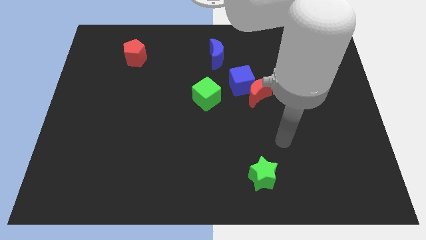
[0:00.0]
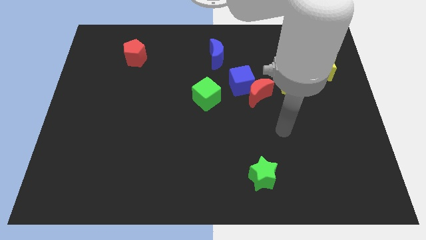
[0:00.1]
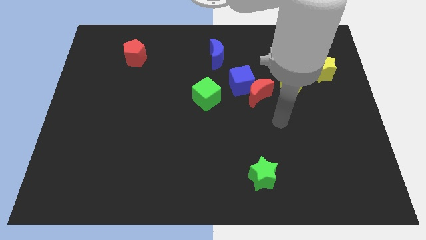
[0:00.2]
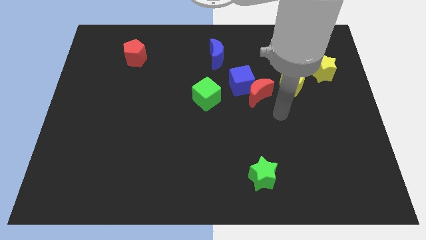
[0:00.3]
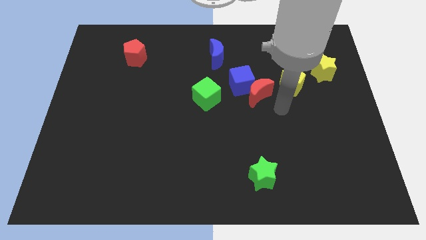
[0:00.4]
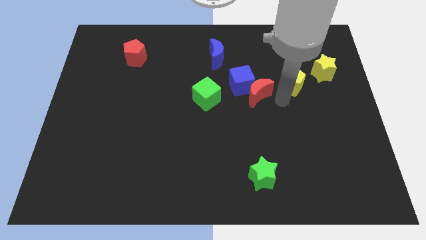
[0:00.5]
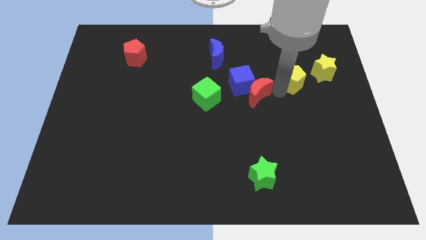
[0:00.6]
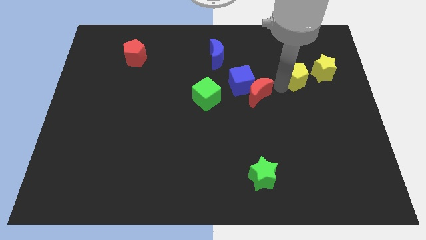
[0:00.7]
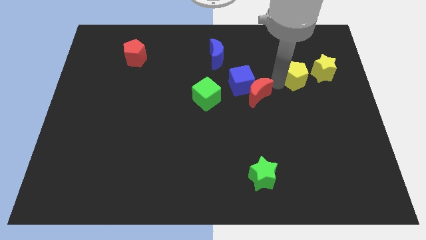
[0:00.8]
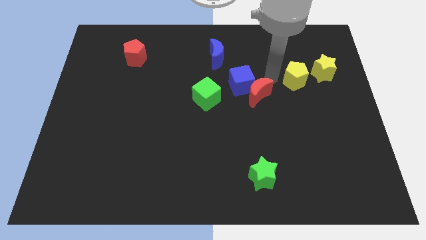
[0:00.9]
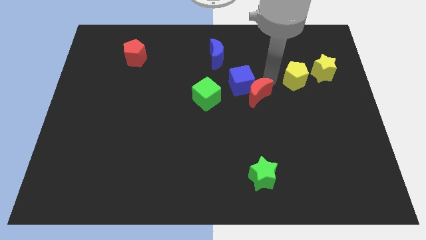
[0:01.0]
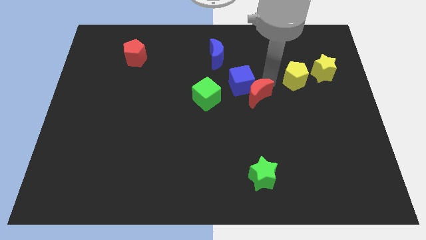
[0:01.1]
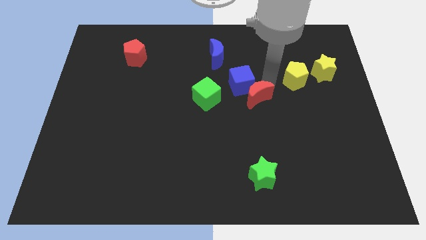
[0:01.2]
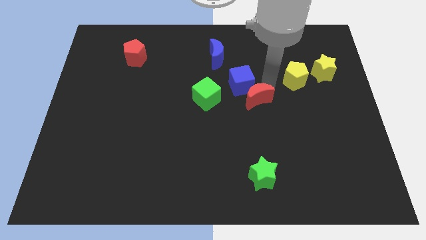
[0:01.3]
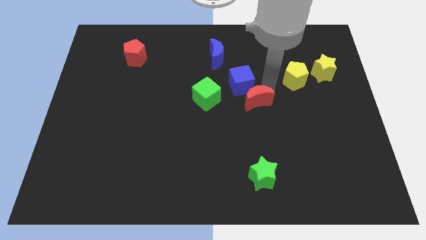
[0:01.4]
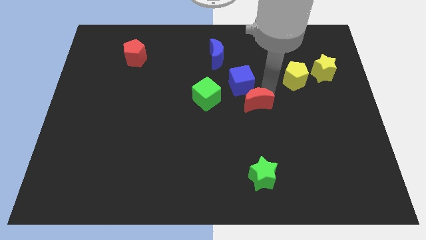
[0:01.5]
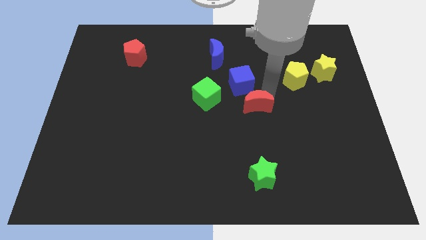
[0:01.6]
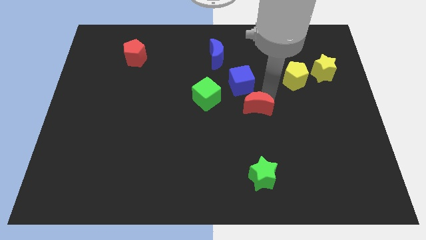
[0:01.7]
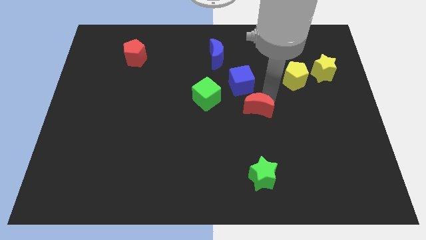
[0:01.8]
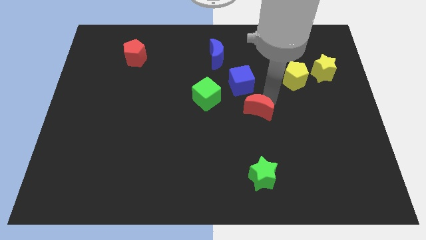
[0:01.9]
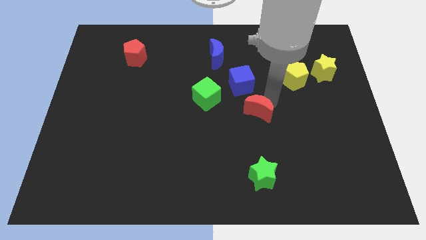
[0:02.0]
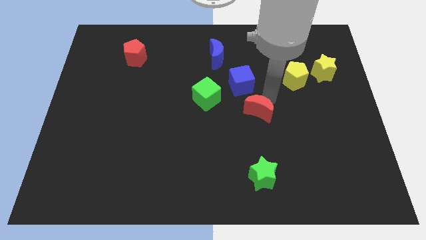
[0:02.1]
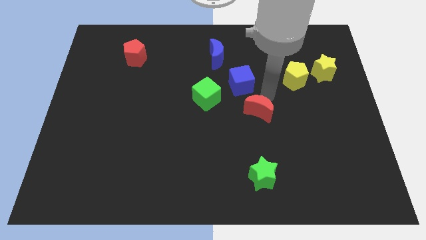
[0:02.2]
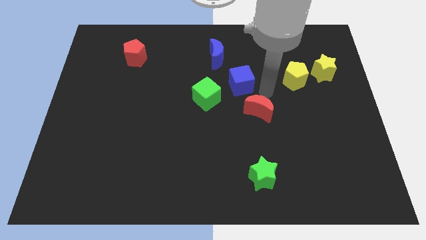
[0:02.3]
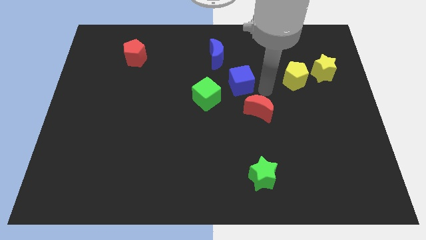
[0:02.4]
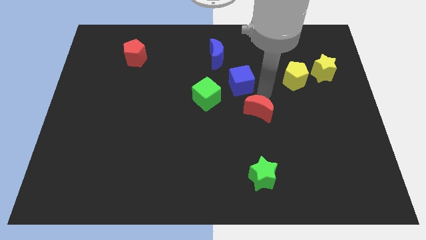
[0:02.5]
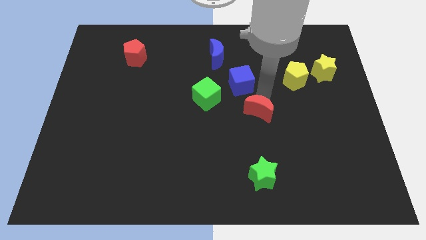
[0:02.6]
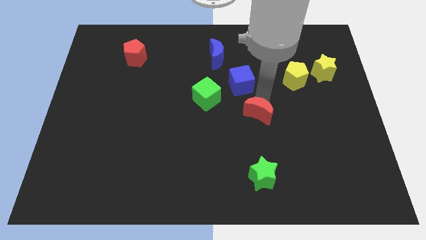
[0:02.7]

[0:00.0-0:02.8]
move the red moon away from the blue cube and yellow pentagon

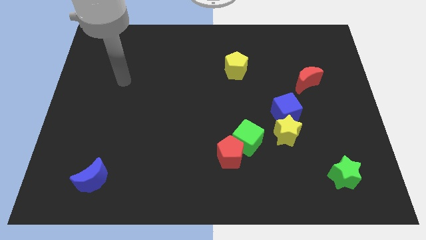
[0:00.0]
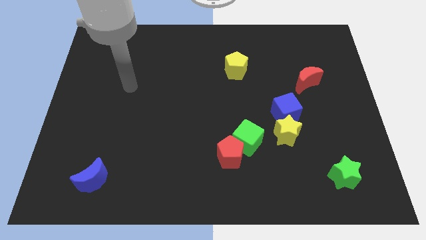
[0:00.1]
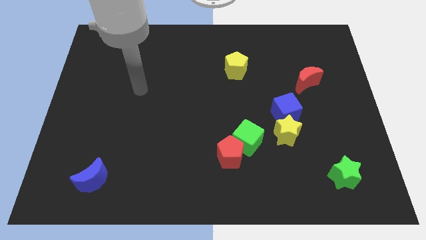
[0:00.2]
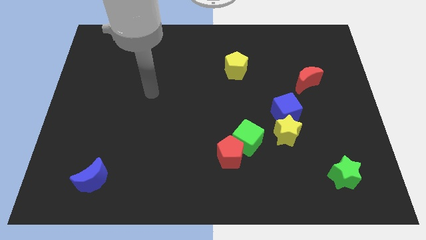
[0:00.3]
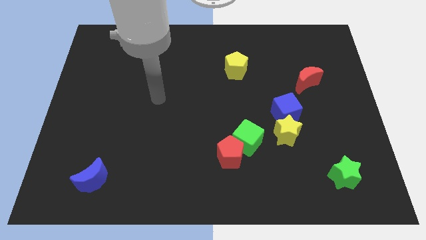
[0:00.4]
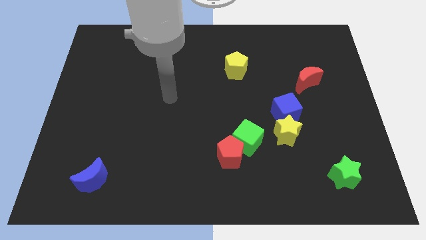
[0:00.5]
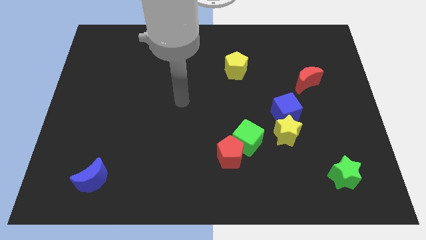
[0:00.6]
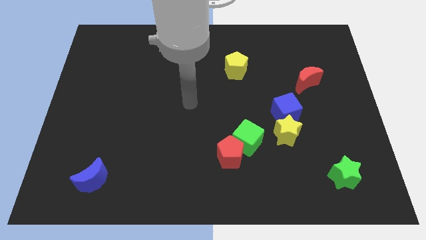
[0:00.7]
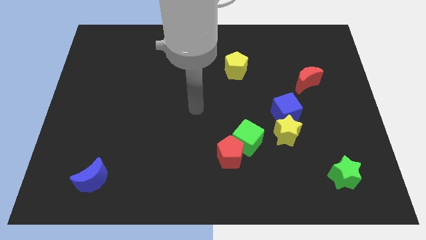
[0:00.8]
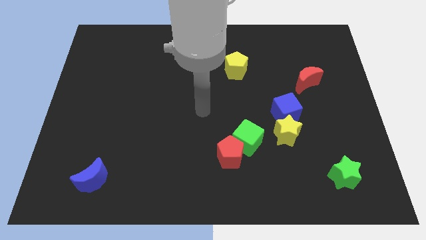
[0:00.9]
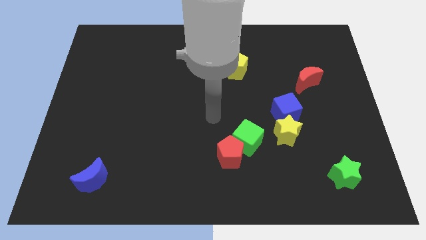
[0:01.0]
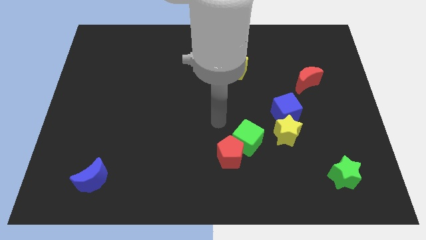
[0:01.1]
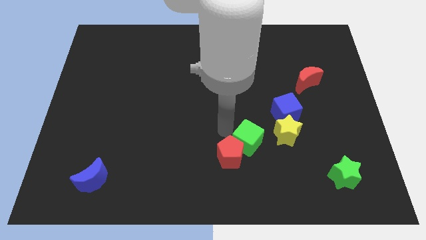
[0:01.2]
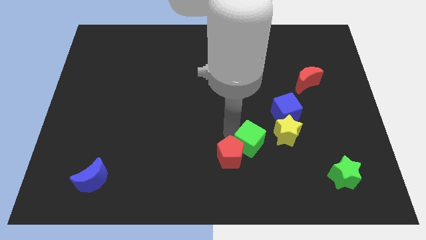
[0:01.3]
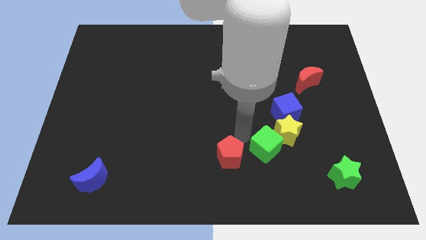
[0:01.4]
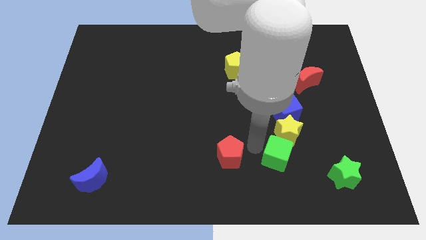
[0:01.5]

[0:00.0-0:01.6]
pull the red pentagon apart from the green cube

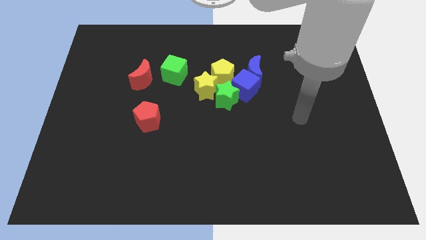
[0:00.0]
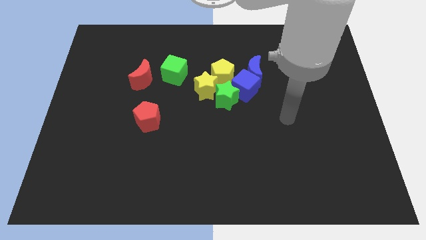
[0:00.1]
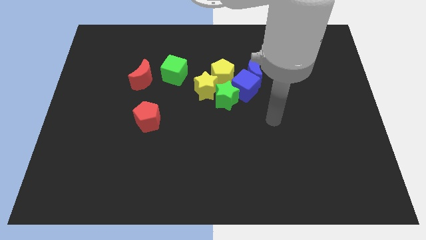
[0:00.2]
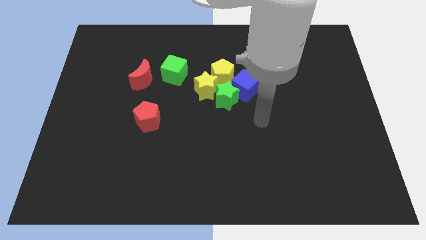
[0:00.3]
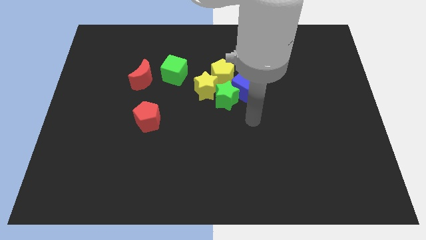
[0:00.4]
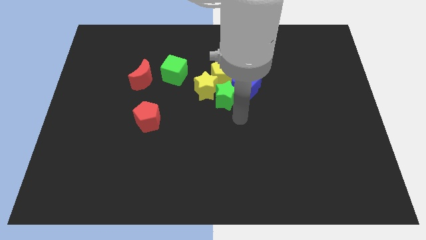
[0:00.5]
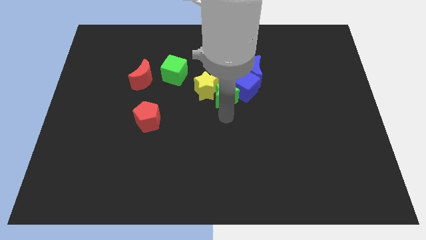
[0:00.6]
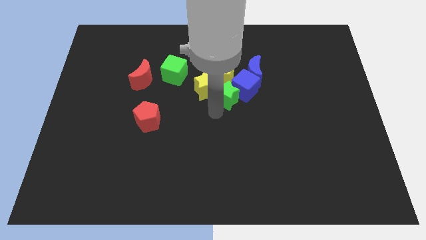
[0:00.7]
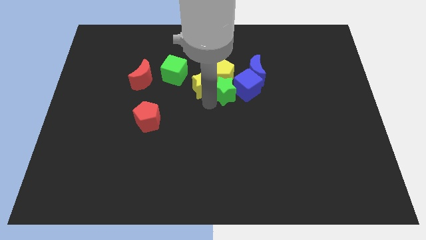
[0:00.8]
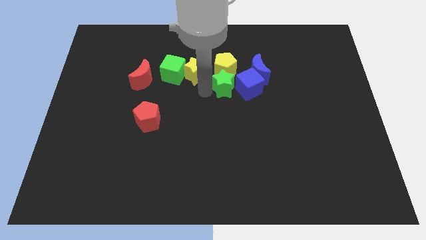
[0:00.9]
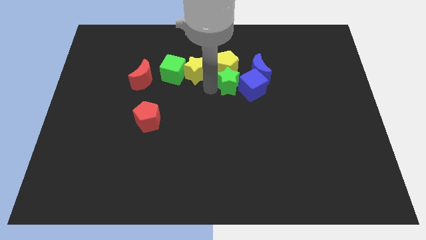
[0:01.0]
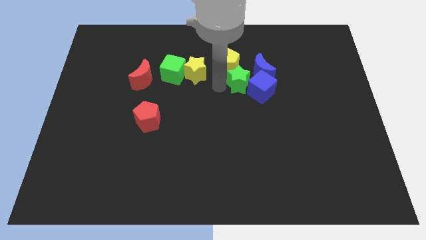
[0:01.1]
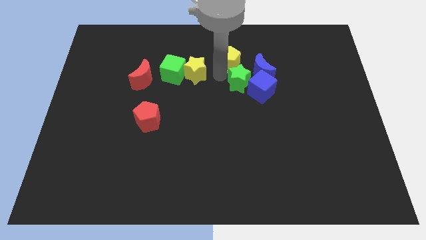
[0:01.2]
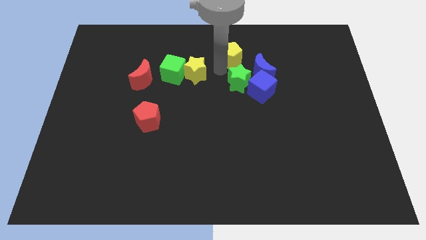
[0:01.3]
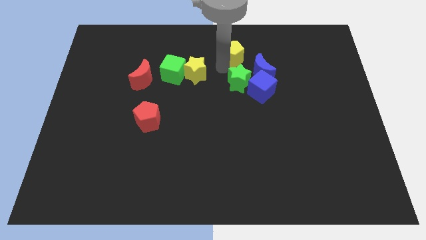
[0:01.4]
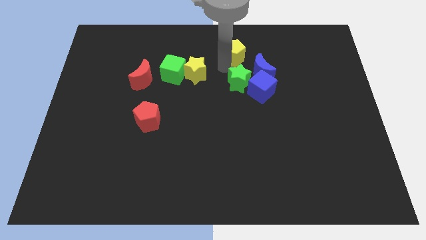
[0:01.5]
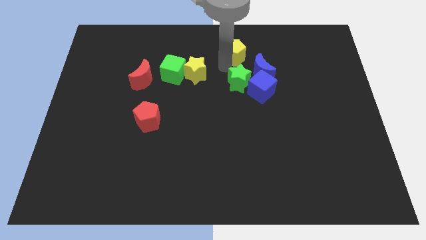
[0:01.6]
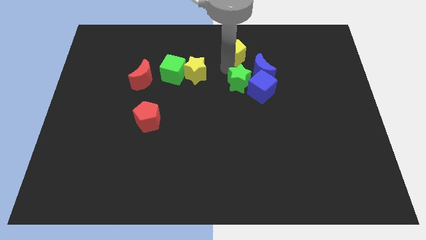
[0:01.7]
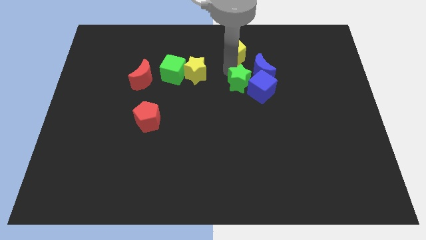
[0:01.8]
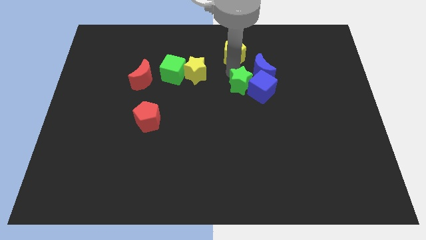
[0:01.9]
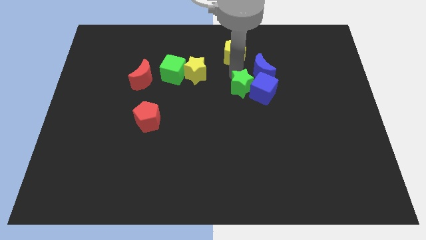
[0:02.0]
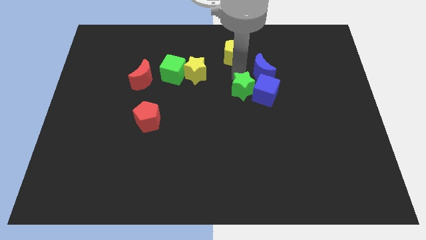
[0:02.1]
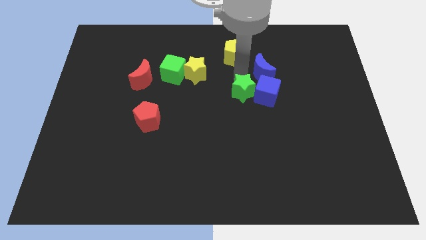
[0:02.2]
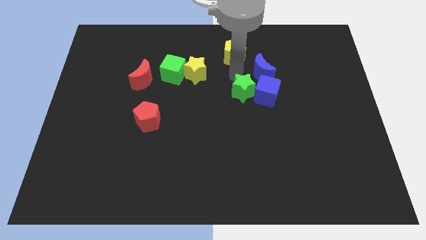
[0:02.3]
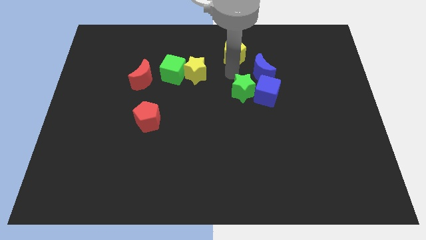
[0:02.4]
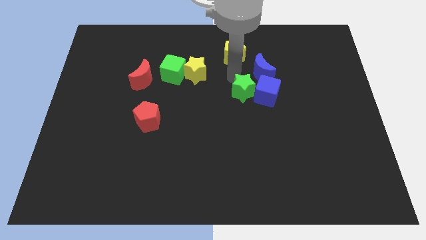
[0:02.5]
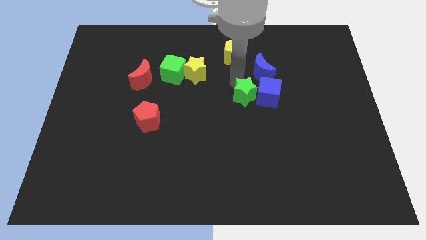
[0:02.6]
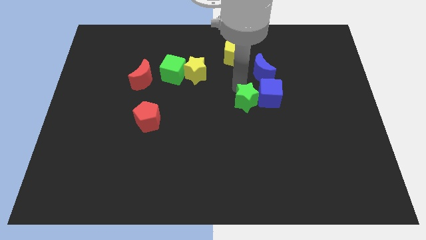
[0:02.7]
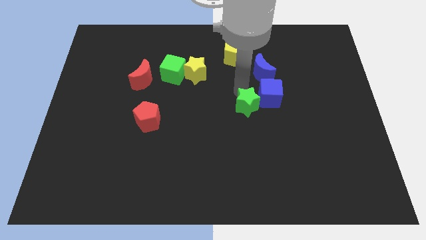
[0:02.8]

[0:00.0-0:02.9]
move the green star away from the group

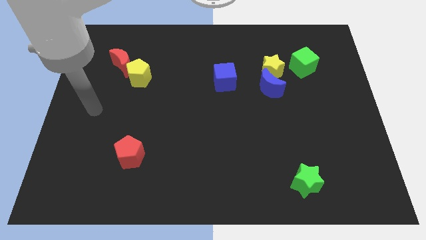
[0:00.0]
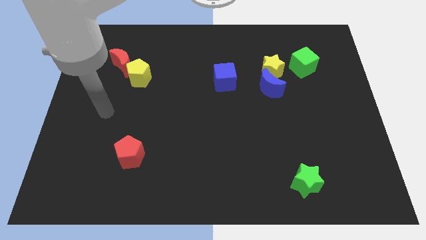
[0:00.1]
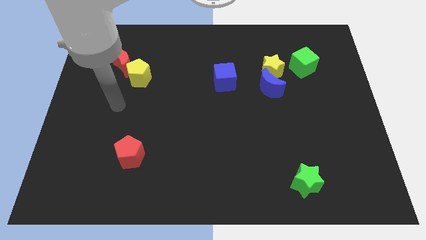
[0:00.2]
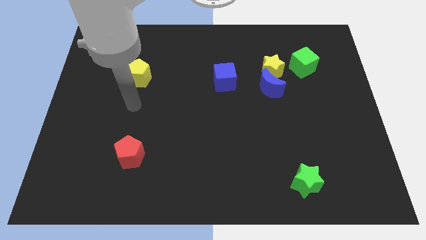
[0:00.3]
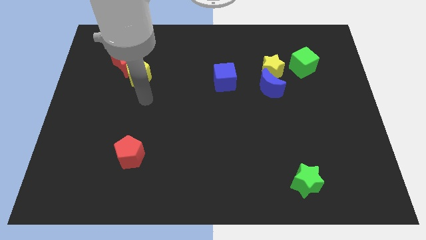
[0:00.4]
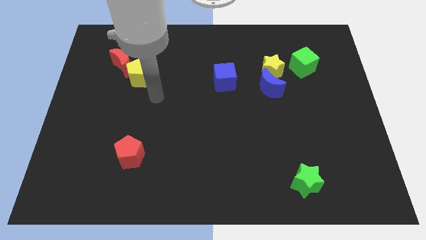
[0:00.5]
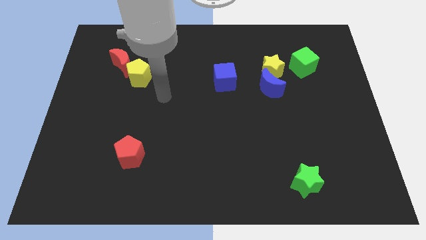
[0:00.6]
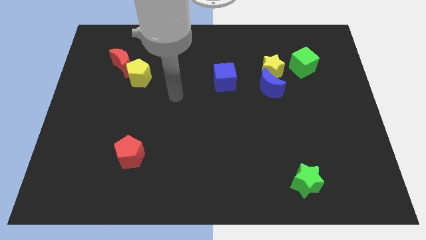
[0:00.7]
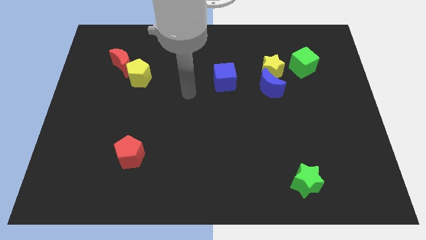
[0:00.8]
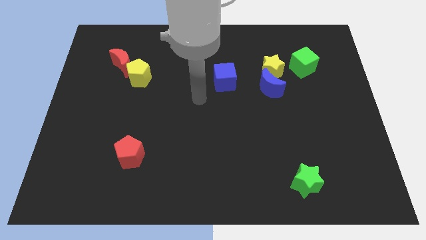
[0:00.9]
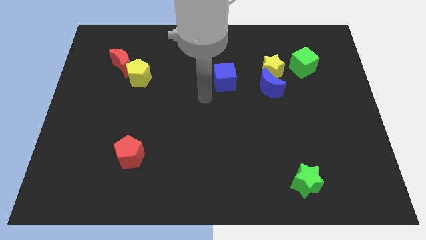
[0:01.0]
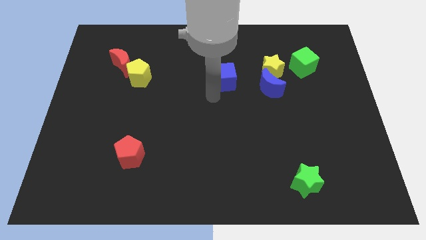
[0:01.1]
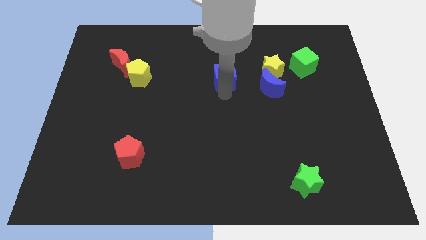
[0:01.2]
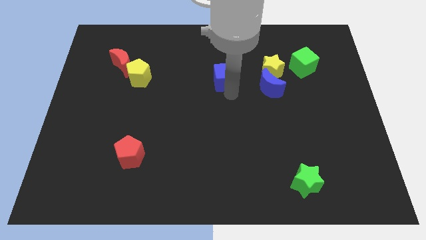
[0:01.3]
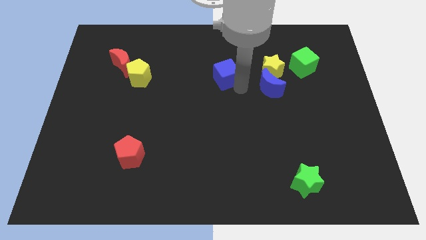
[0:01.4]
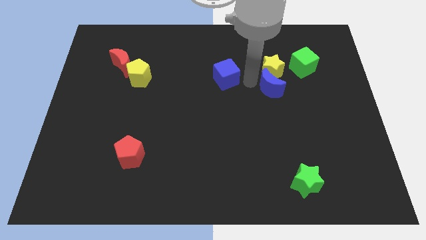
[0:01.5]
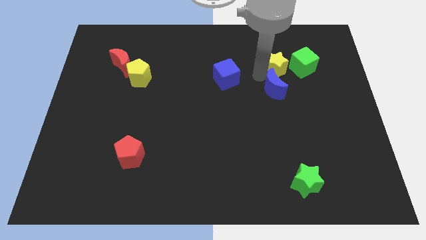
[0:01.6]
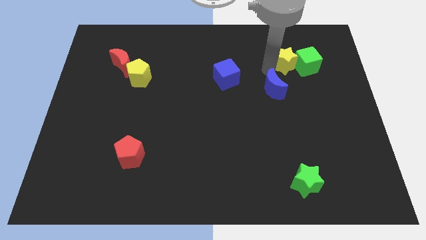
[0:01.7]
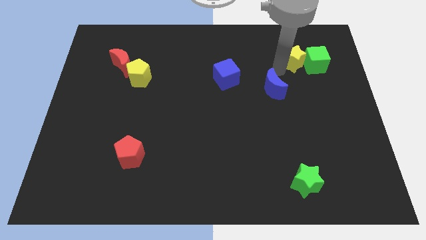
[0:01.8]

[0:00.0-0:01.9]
move the blue moon away from the yellow star

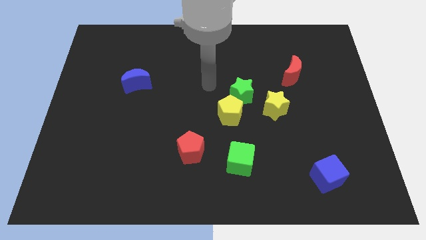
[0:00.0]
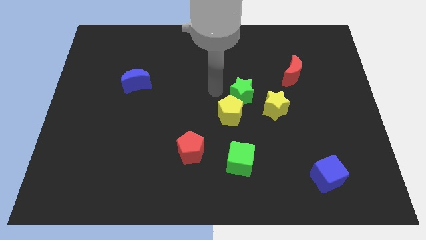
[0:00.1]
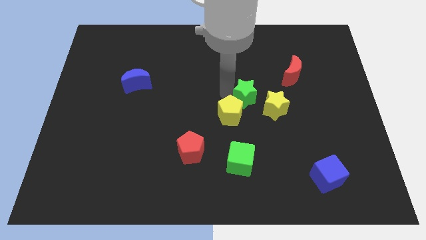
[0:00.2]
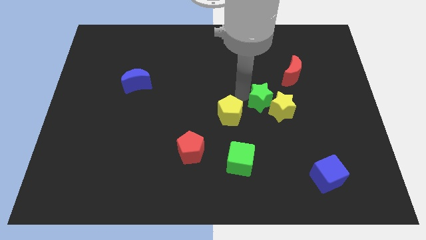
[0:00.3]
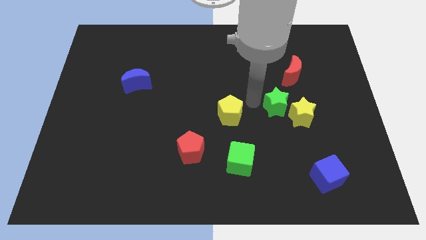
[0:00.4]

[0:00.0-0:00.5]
move the yellow pentagon away from the green star
